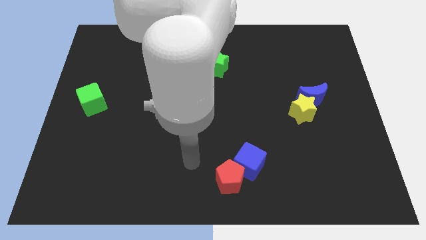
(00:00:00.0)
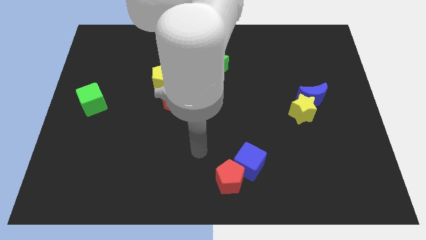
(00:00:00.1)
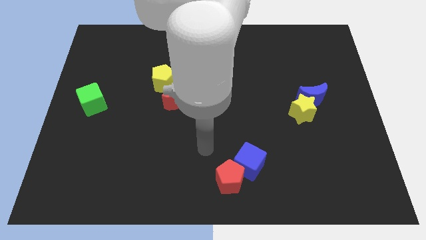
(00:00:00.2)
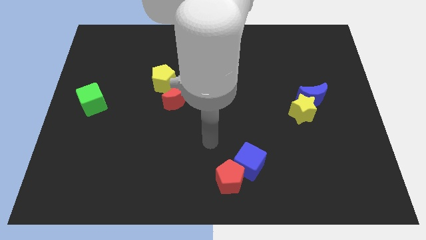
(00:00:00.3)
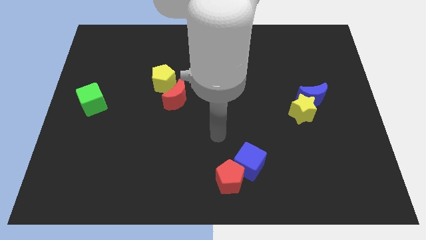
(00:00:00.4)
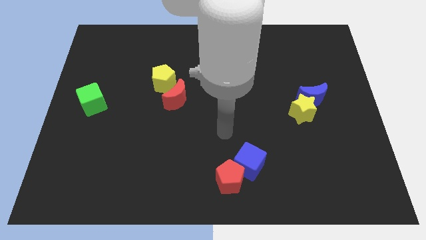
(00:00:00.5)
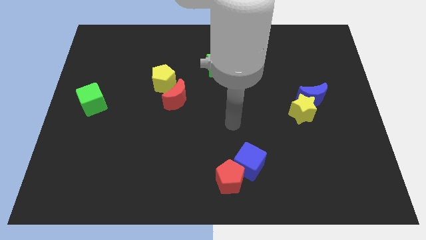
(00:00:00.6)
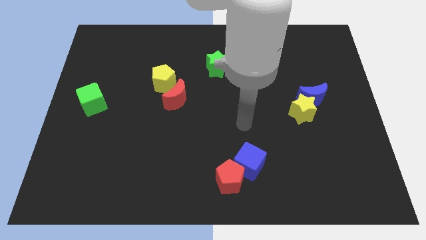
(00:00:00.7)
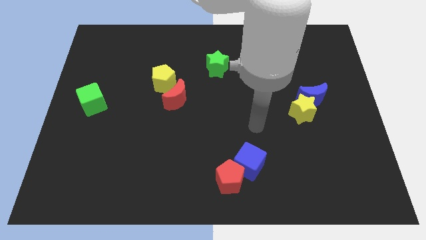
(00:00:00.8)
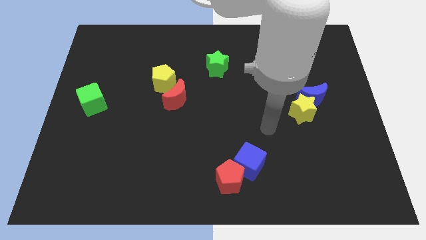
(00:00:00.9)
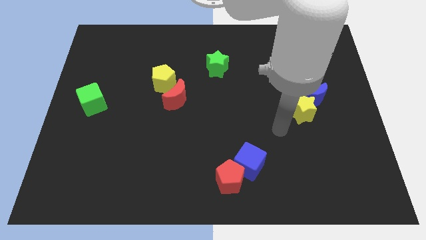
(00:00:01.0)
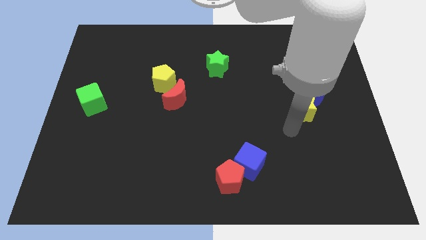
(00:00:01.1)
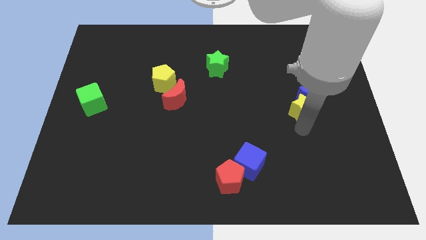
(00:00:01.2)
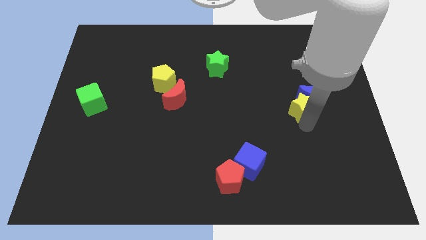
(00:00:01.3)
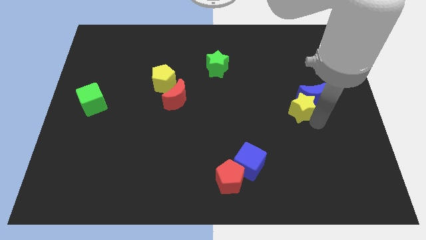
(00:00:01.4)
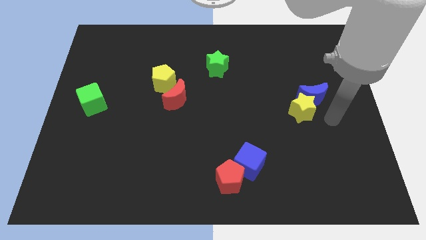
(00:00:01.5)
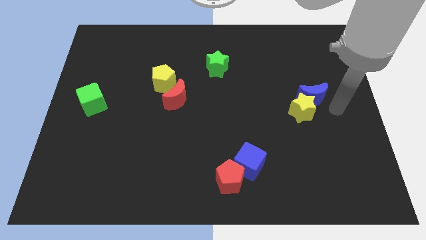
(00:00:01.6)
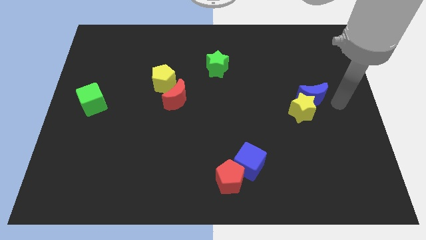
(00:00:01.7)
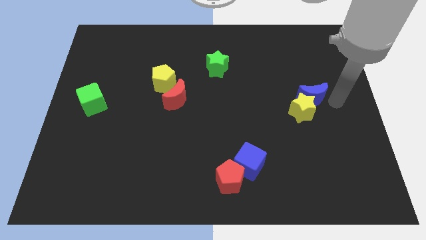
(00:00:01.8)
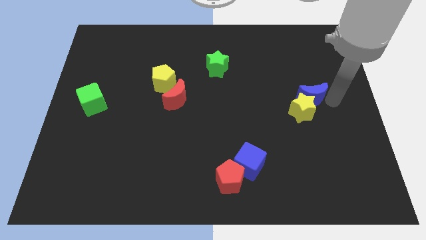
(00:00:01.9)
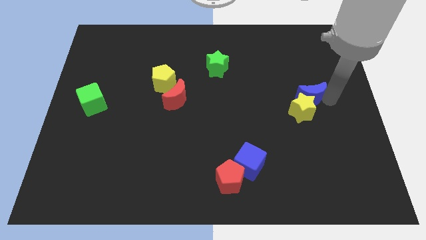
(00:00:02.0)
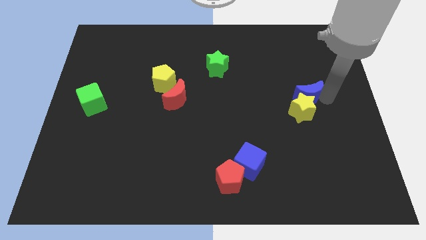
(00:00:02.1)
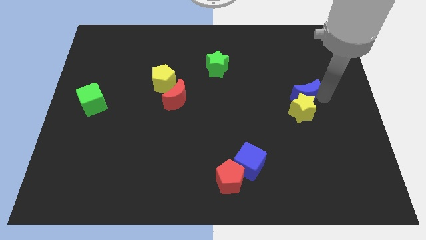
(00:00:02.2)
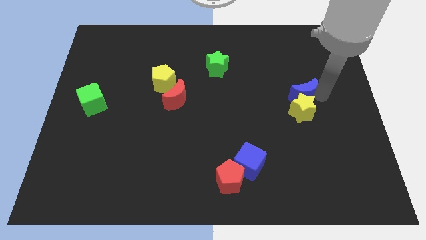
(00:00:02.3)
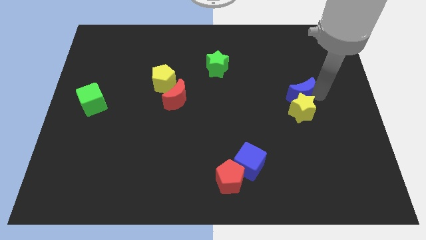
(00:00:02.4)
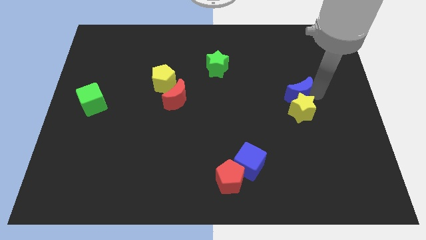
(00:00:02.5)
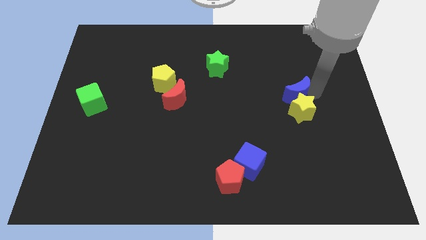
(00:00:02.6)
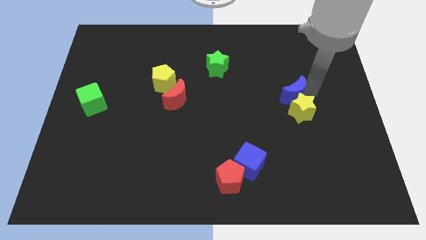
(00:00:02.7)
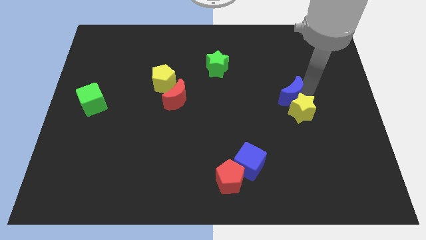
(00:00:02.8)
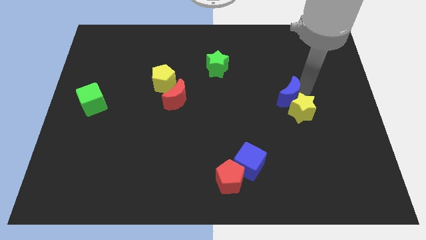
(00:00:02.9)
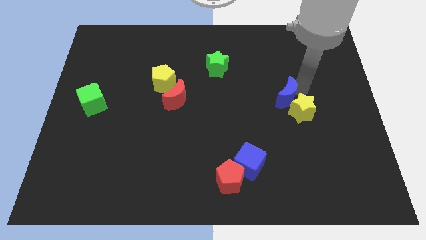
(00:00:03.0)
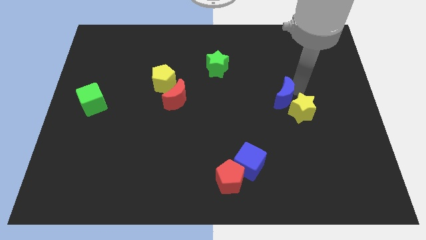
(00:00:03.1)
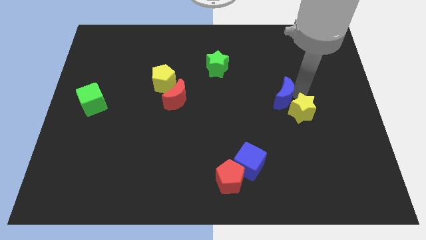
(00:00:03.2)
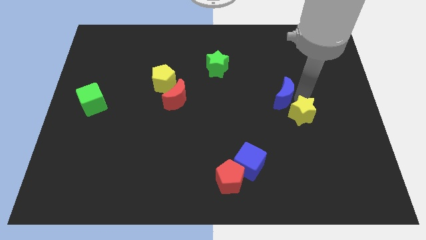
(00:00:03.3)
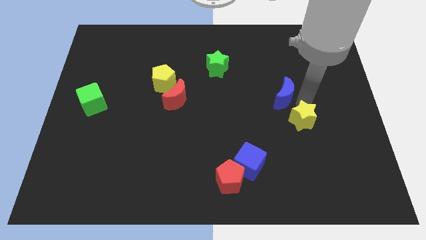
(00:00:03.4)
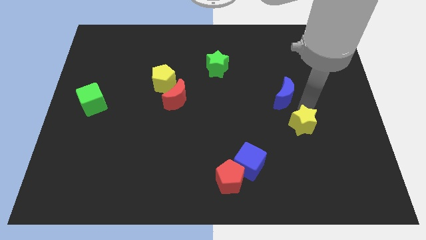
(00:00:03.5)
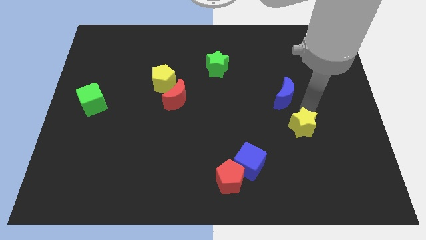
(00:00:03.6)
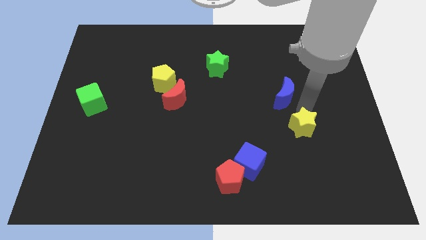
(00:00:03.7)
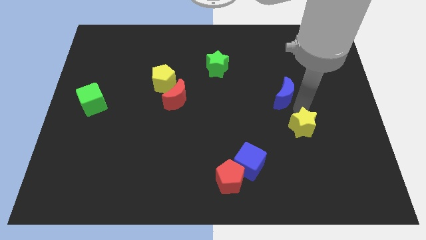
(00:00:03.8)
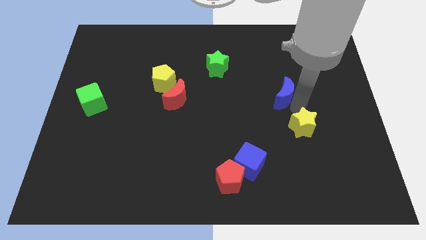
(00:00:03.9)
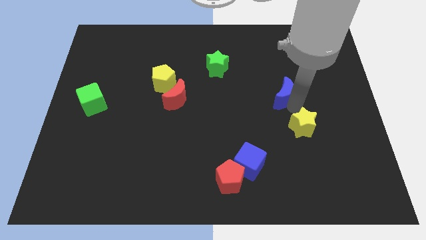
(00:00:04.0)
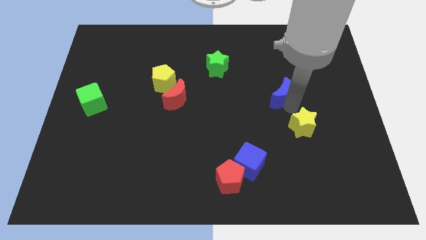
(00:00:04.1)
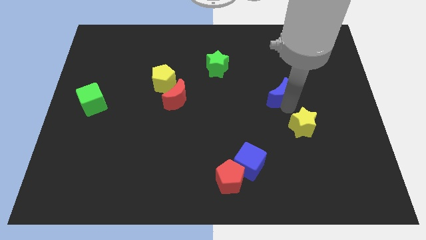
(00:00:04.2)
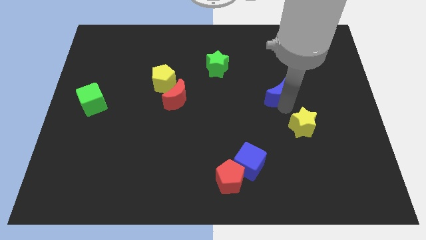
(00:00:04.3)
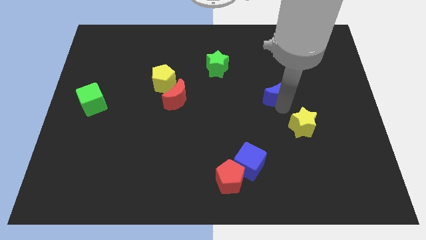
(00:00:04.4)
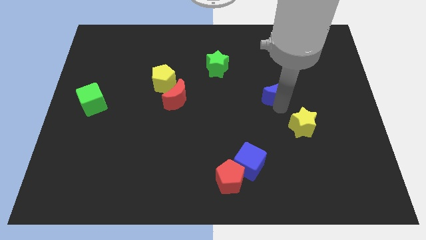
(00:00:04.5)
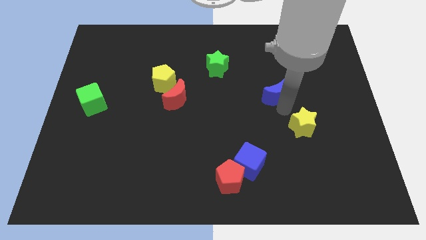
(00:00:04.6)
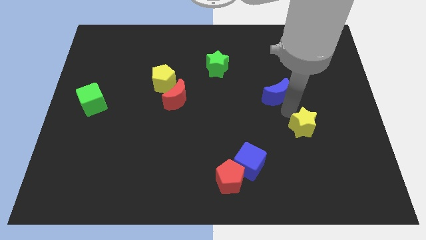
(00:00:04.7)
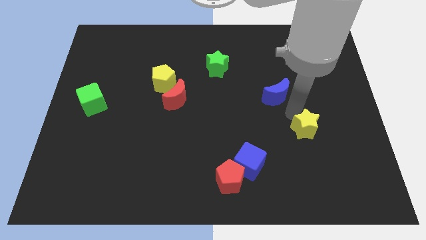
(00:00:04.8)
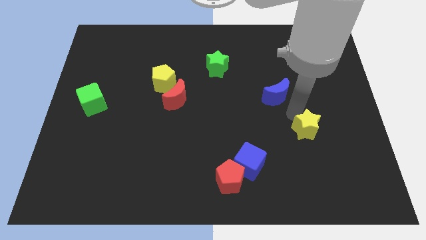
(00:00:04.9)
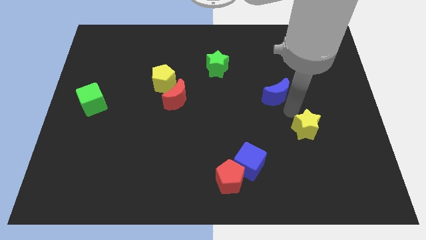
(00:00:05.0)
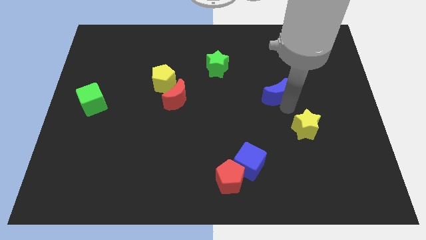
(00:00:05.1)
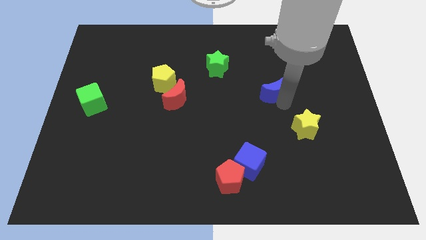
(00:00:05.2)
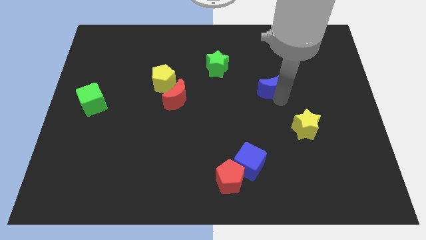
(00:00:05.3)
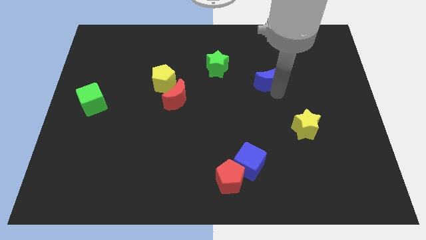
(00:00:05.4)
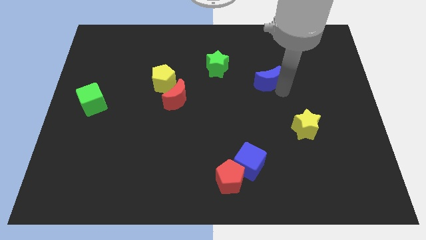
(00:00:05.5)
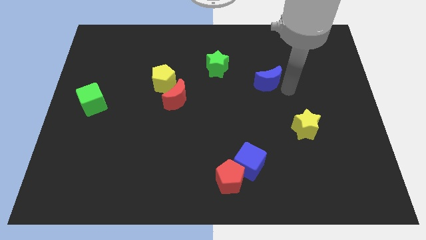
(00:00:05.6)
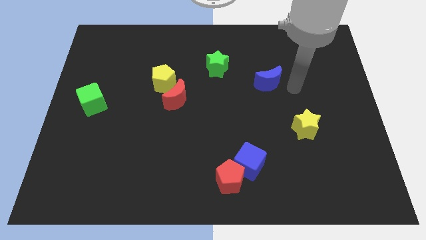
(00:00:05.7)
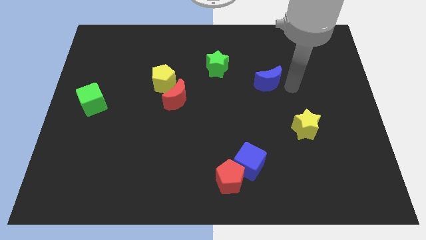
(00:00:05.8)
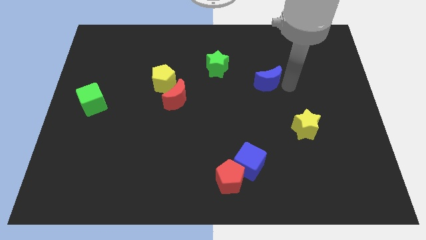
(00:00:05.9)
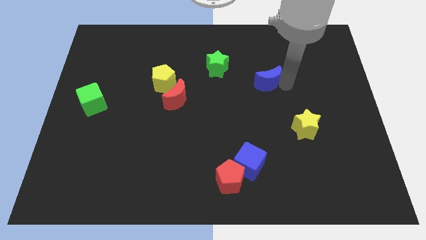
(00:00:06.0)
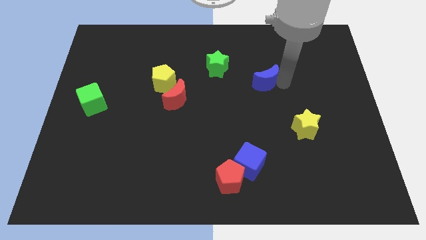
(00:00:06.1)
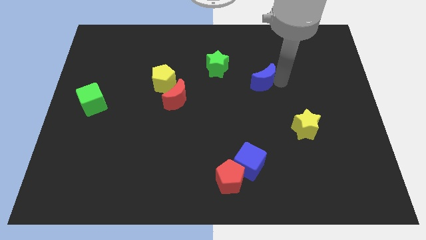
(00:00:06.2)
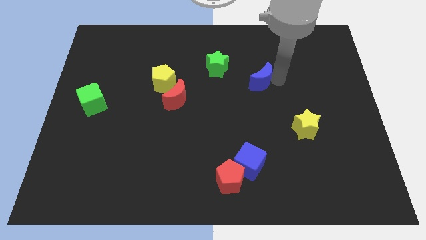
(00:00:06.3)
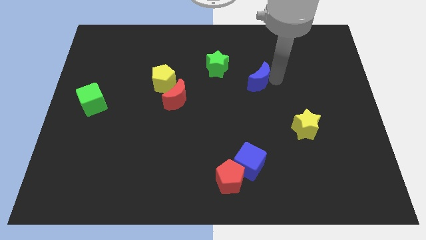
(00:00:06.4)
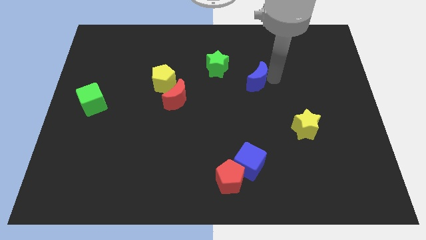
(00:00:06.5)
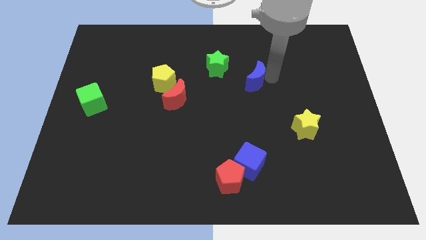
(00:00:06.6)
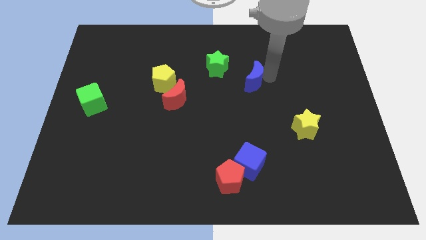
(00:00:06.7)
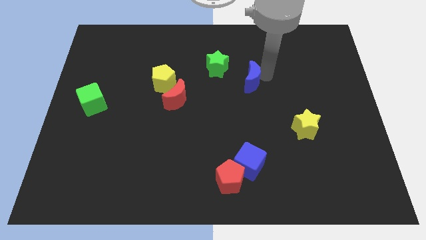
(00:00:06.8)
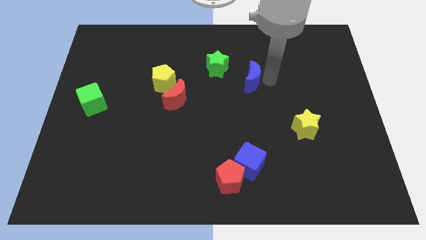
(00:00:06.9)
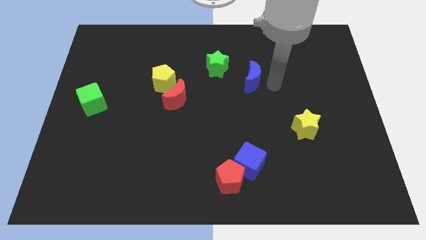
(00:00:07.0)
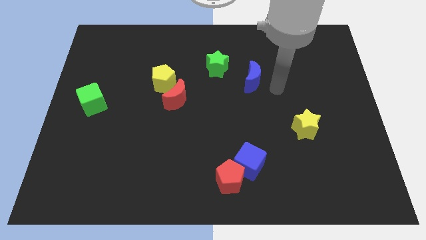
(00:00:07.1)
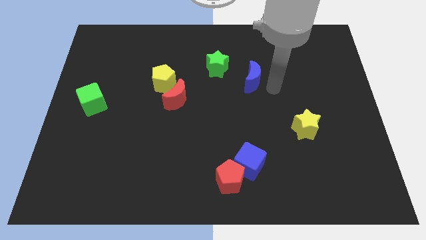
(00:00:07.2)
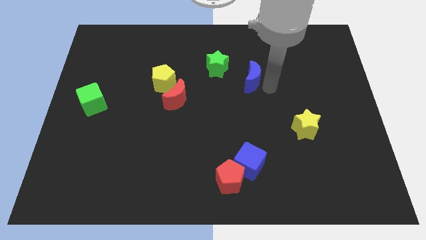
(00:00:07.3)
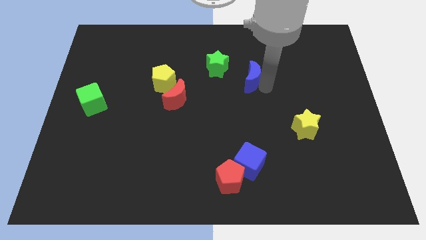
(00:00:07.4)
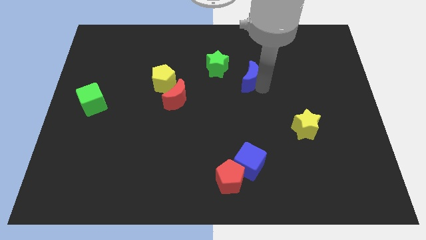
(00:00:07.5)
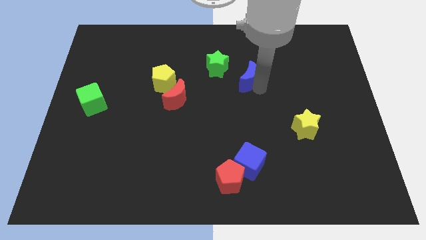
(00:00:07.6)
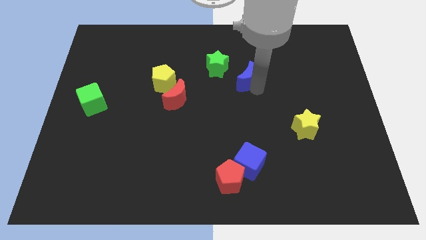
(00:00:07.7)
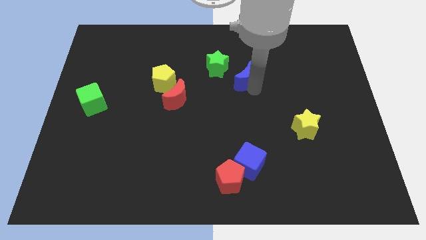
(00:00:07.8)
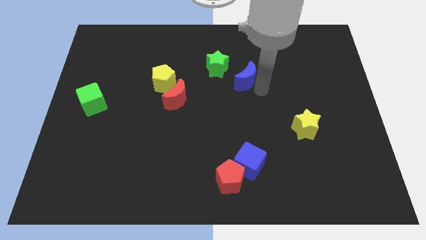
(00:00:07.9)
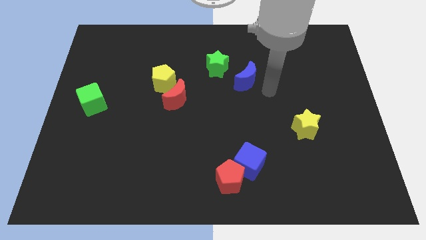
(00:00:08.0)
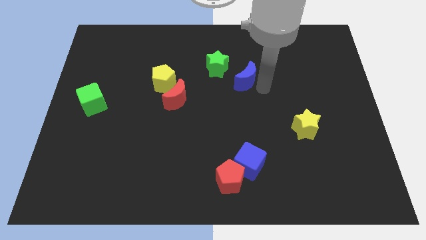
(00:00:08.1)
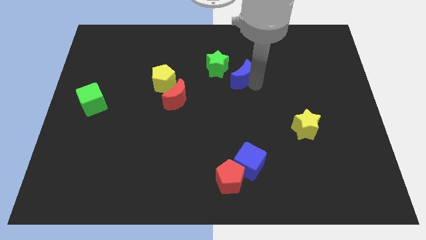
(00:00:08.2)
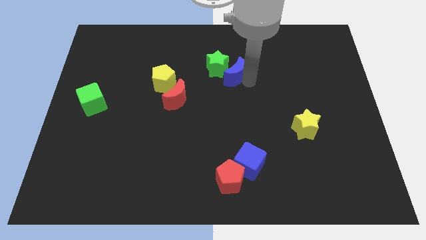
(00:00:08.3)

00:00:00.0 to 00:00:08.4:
slide the blue moon next to the green star
